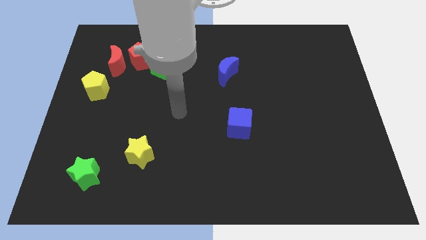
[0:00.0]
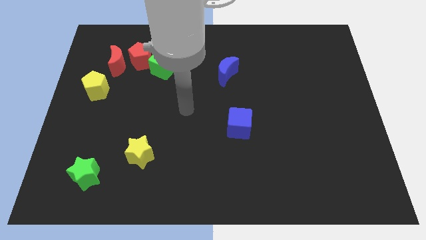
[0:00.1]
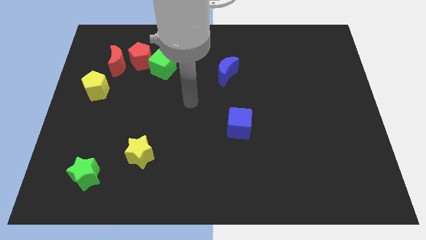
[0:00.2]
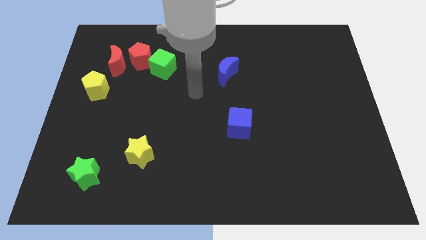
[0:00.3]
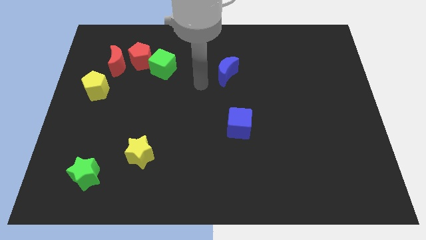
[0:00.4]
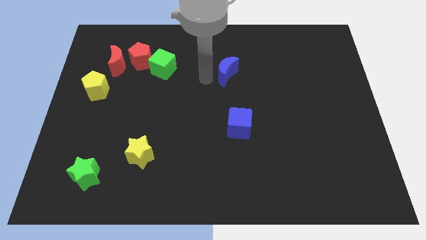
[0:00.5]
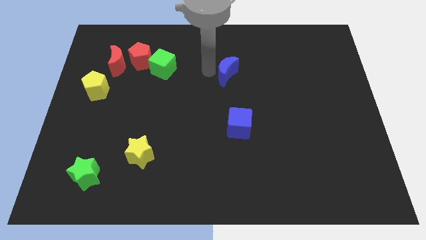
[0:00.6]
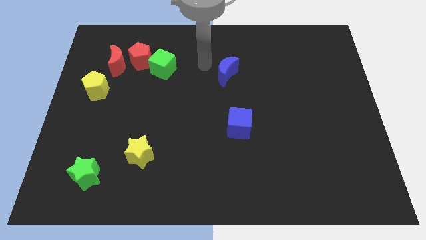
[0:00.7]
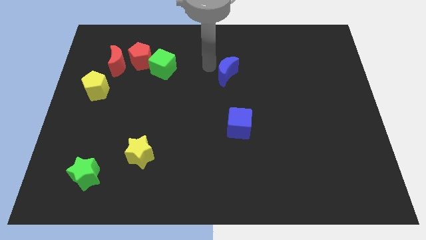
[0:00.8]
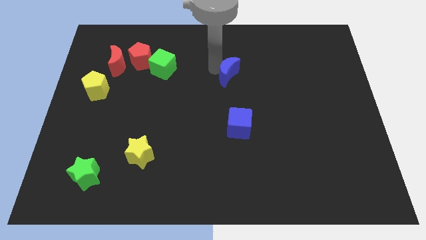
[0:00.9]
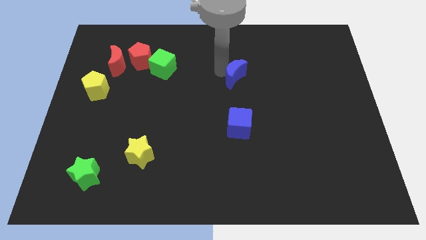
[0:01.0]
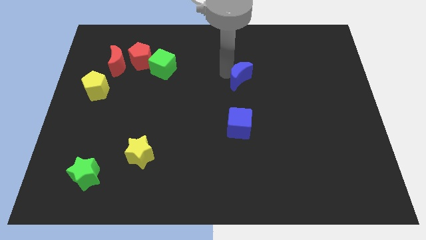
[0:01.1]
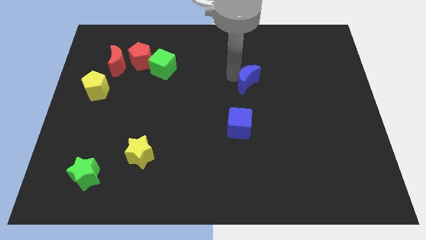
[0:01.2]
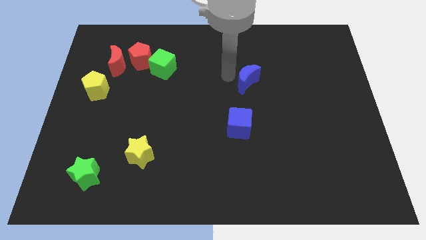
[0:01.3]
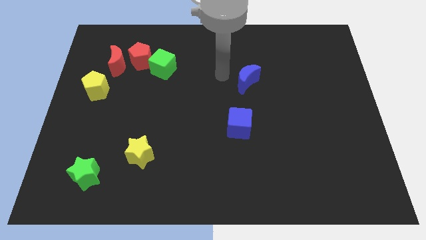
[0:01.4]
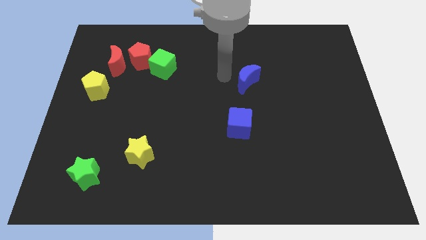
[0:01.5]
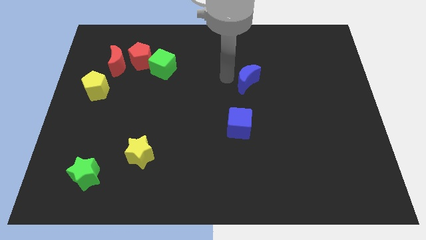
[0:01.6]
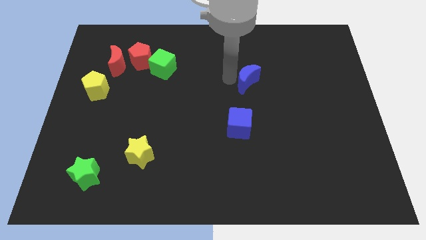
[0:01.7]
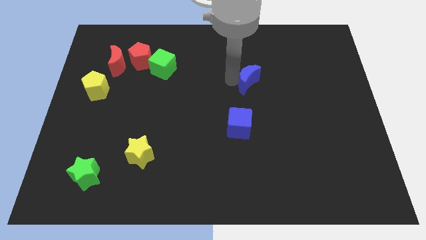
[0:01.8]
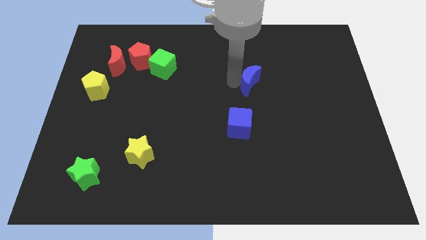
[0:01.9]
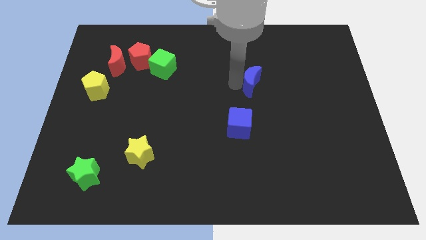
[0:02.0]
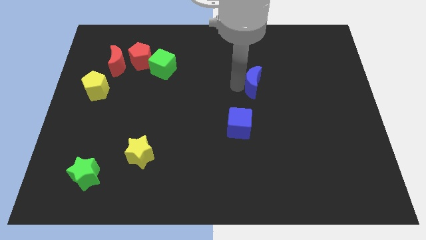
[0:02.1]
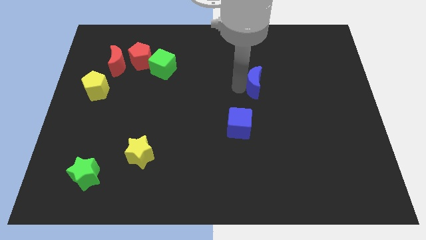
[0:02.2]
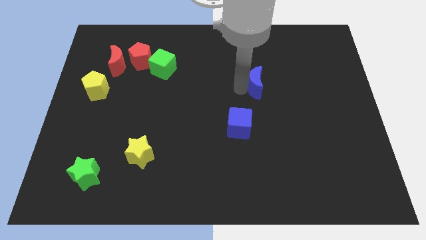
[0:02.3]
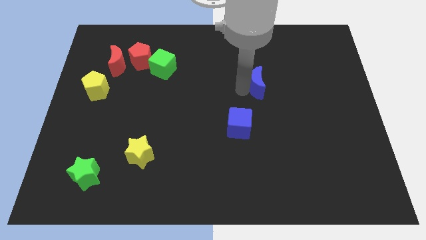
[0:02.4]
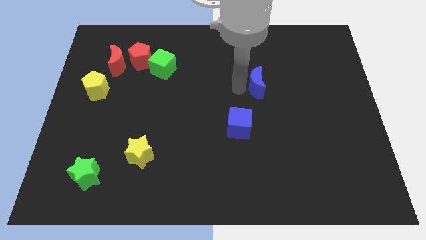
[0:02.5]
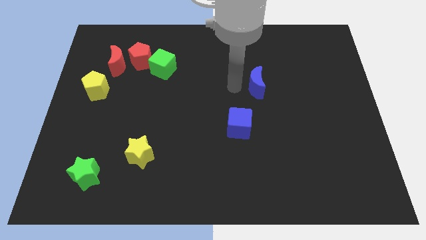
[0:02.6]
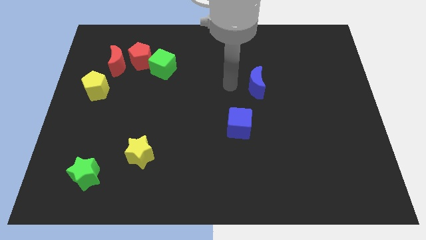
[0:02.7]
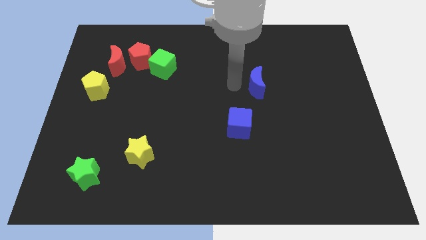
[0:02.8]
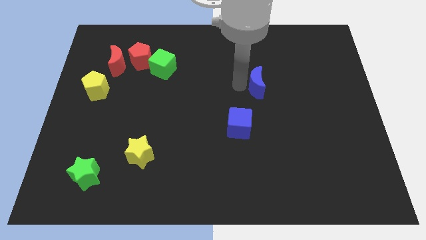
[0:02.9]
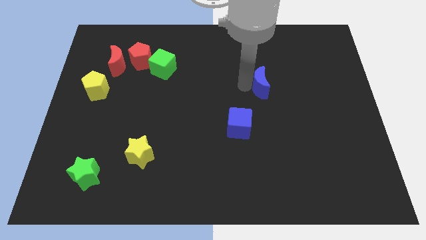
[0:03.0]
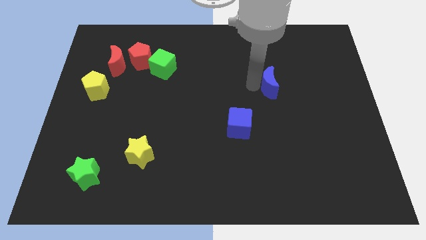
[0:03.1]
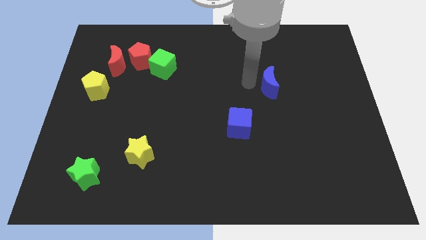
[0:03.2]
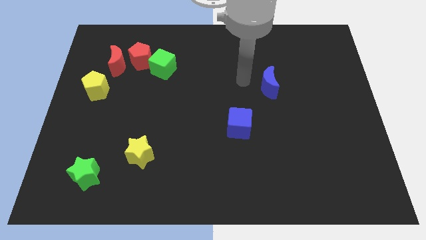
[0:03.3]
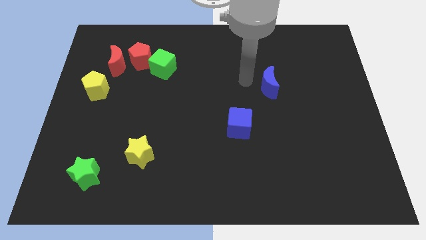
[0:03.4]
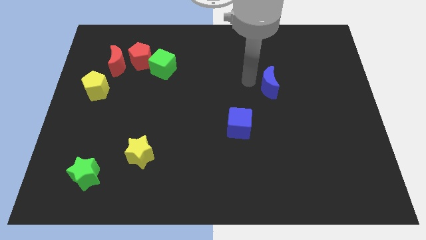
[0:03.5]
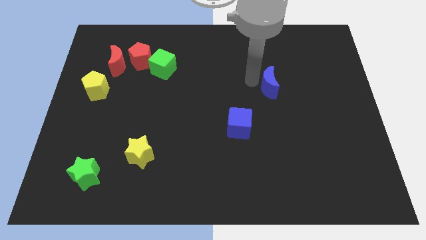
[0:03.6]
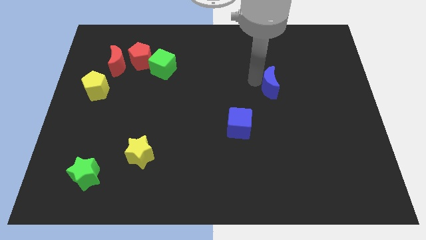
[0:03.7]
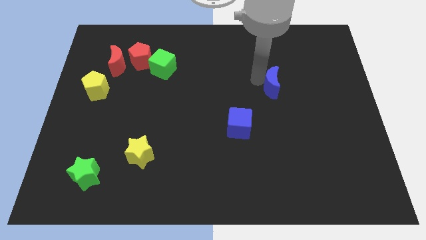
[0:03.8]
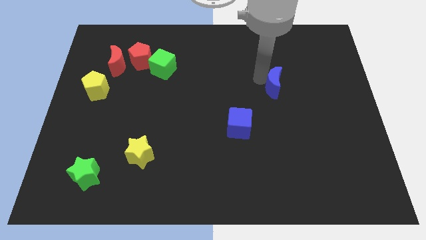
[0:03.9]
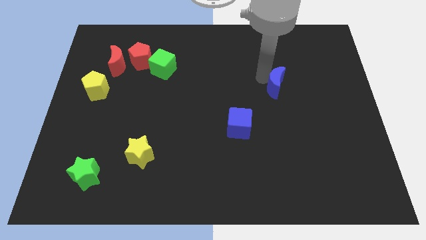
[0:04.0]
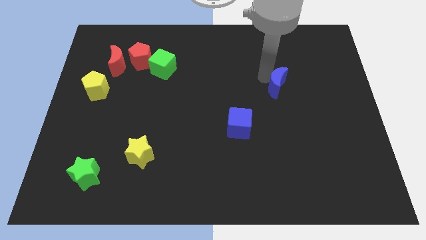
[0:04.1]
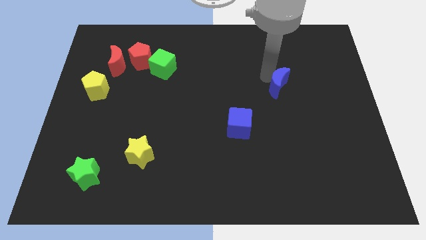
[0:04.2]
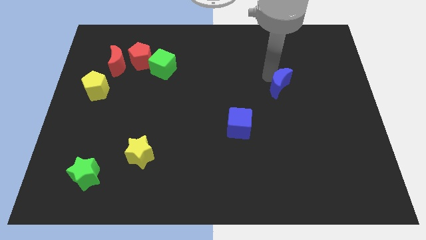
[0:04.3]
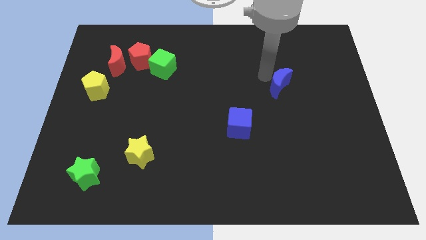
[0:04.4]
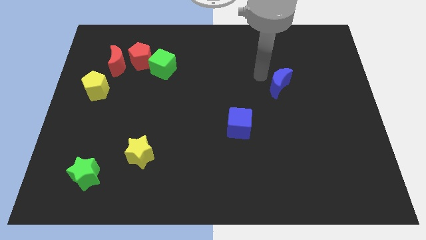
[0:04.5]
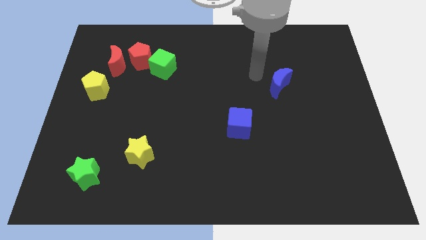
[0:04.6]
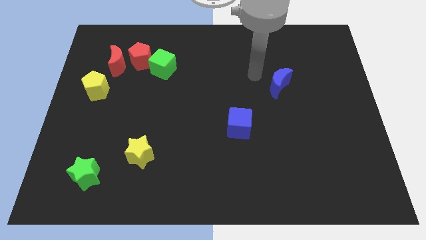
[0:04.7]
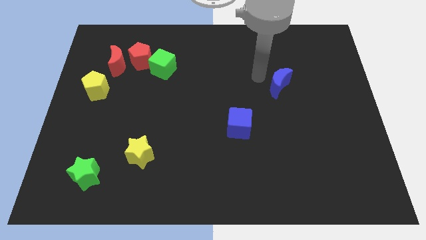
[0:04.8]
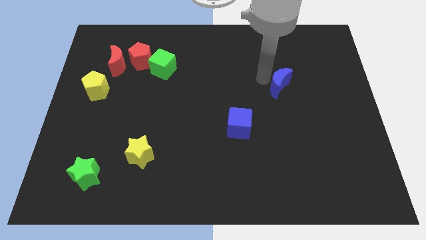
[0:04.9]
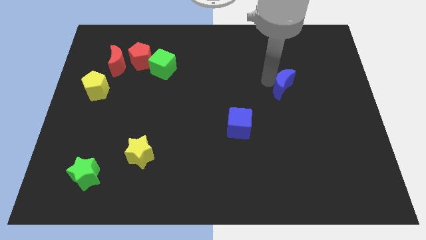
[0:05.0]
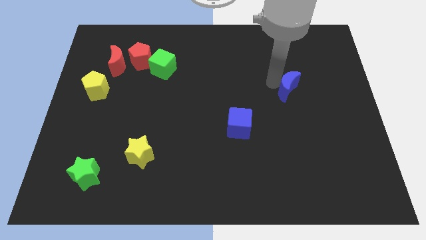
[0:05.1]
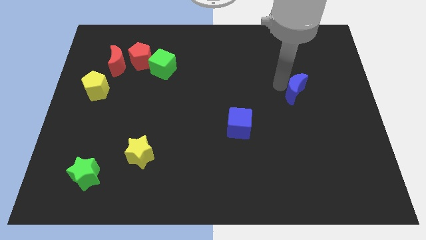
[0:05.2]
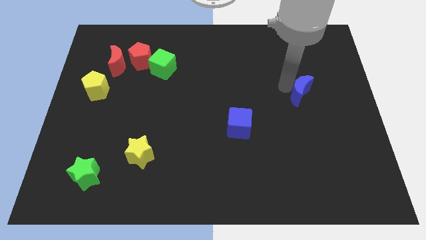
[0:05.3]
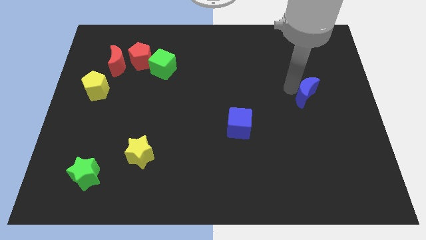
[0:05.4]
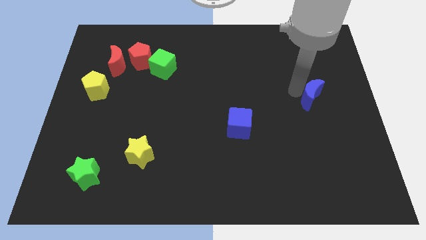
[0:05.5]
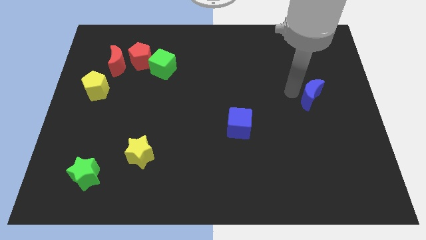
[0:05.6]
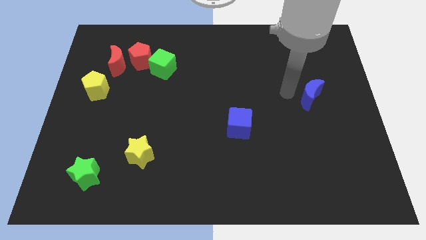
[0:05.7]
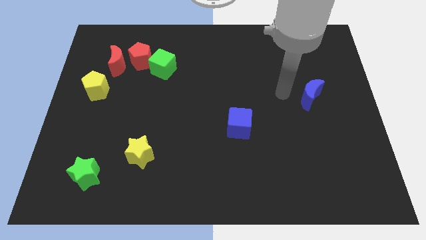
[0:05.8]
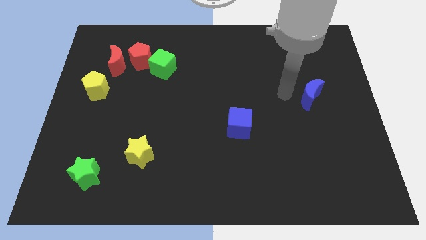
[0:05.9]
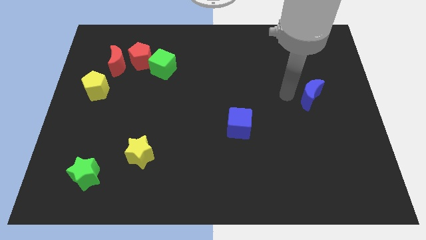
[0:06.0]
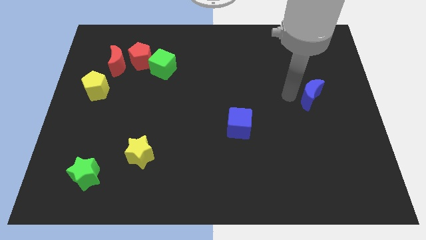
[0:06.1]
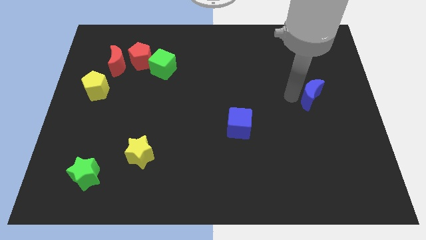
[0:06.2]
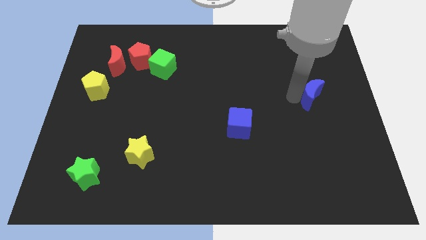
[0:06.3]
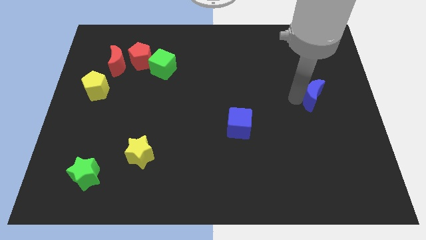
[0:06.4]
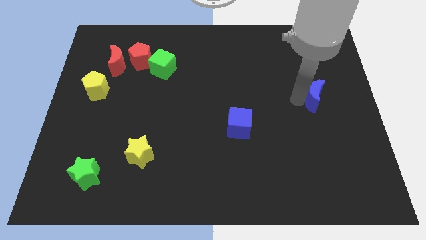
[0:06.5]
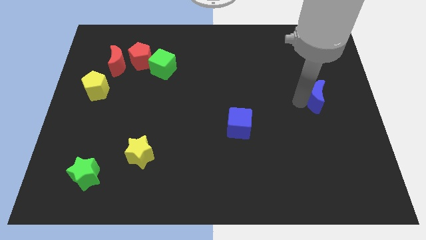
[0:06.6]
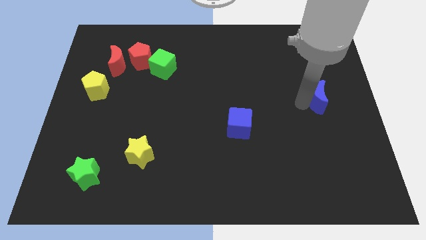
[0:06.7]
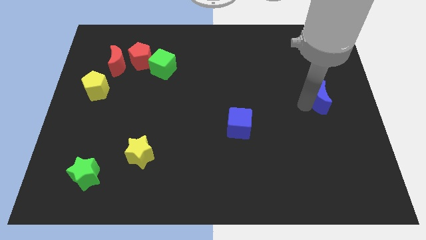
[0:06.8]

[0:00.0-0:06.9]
move the blue moon to the right side
